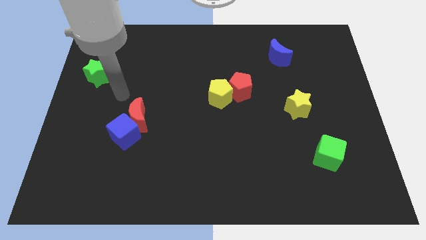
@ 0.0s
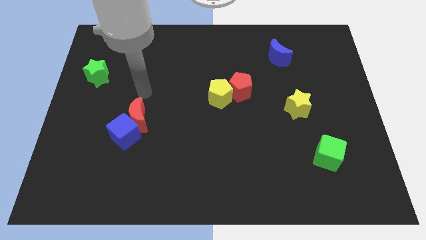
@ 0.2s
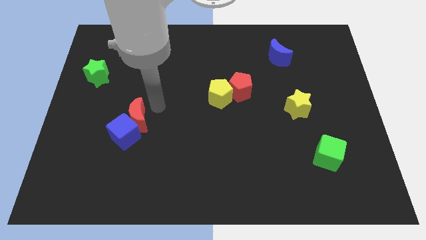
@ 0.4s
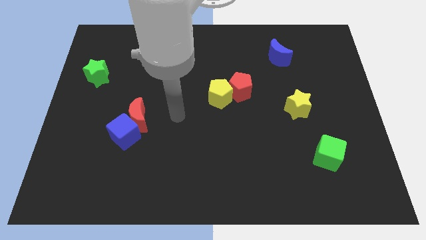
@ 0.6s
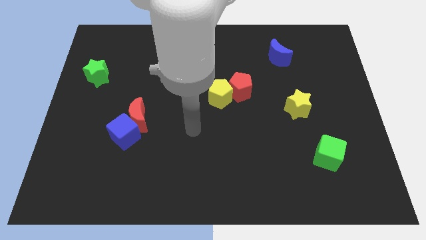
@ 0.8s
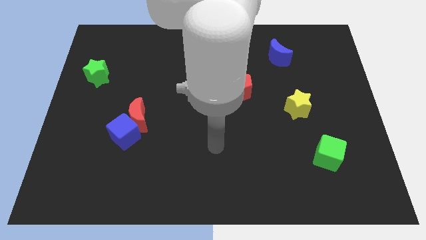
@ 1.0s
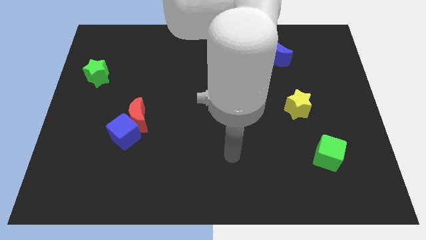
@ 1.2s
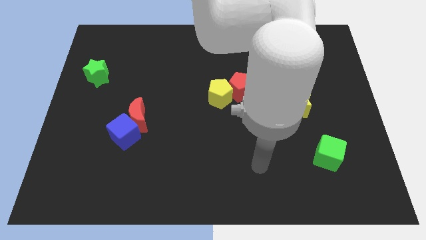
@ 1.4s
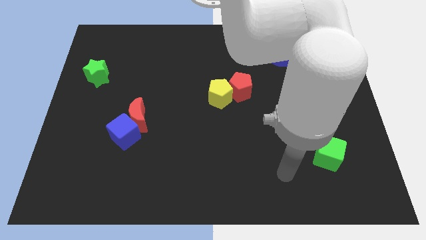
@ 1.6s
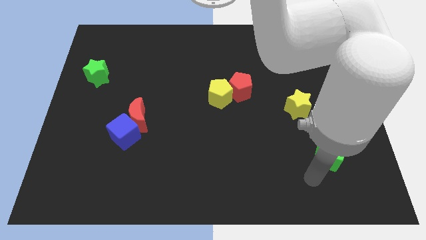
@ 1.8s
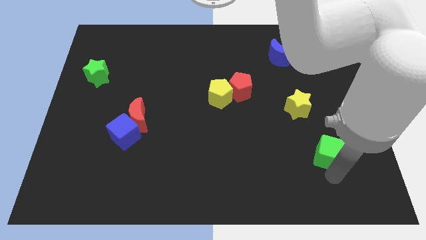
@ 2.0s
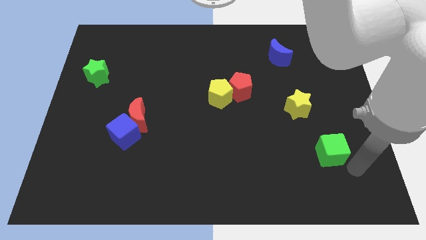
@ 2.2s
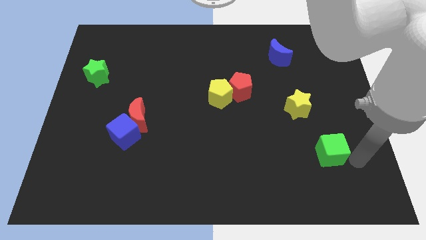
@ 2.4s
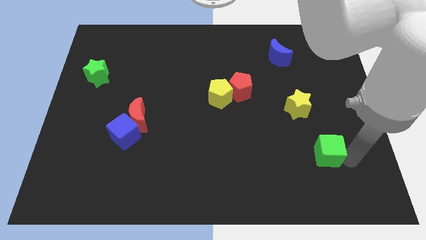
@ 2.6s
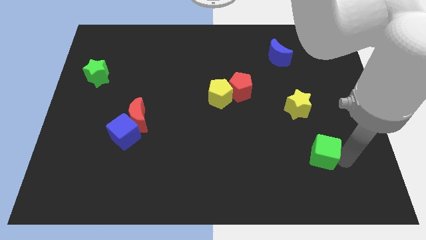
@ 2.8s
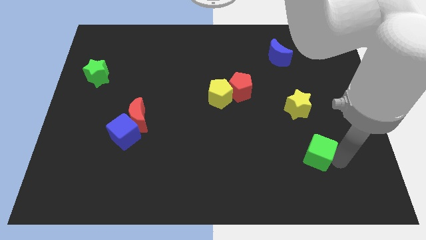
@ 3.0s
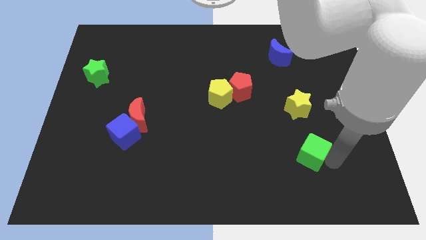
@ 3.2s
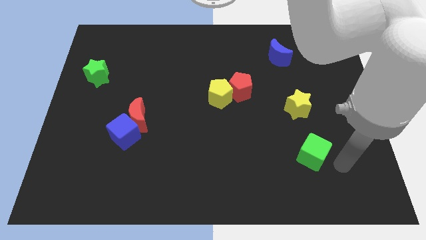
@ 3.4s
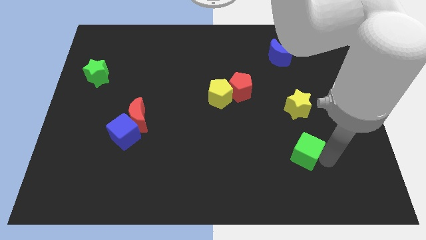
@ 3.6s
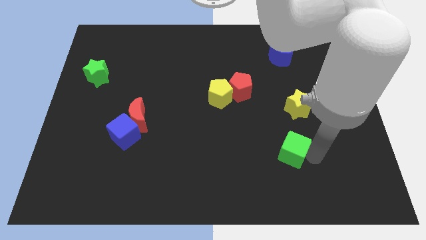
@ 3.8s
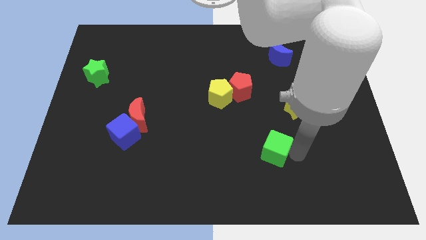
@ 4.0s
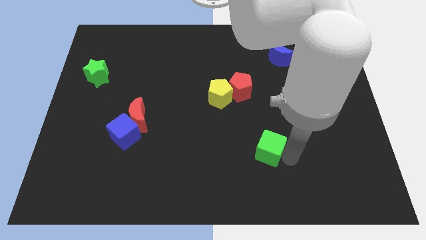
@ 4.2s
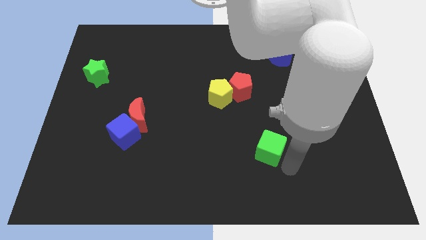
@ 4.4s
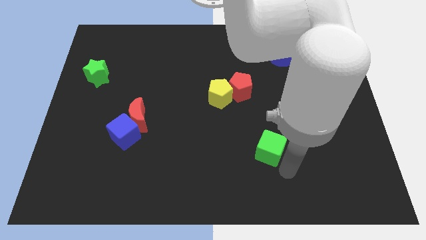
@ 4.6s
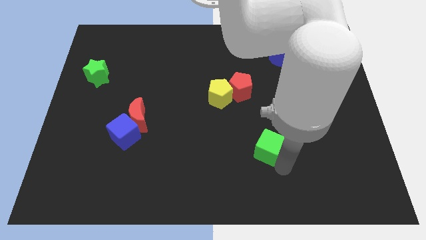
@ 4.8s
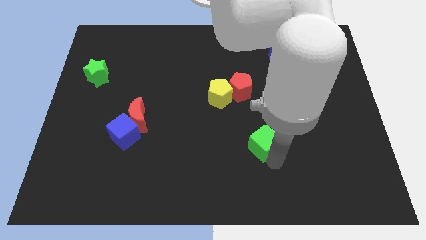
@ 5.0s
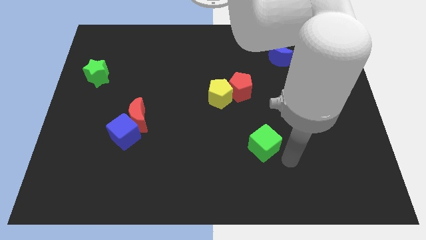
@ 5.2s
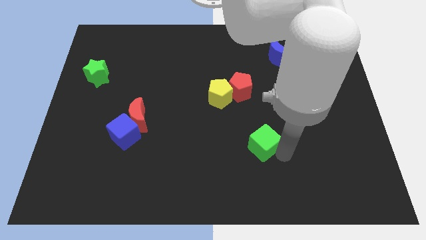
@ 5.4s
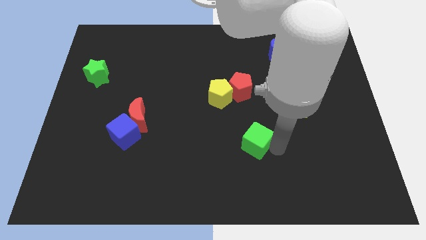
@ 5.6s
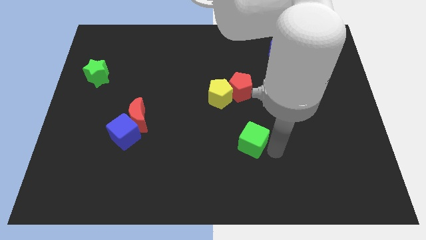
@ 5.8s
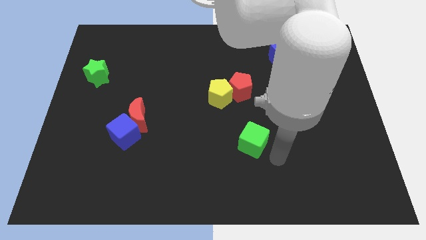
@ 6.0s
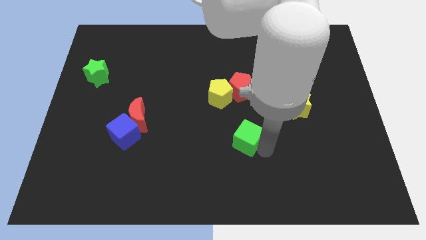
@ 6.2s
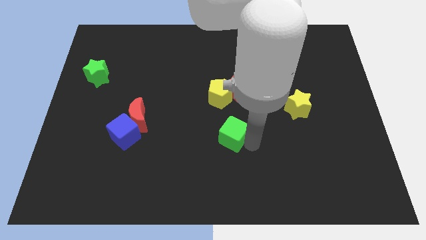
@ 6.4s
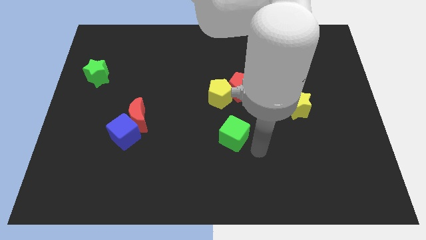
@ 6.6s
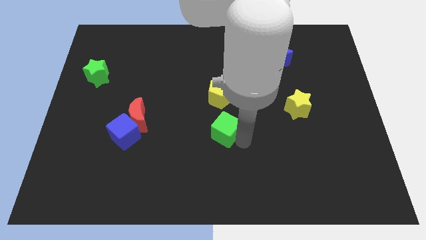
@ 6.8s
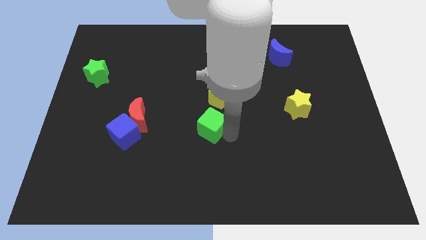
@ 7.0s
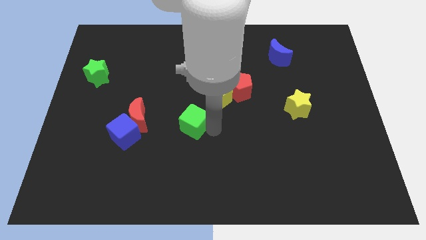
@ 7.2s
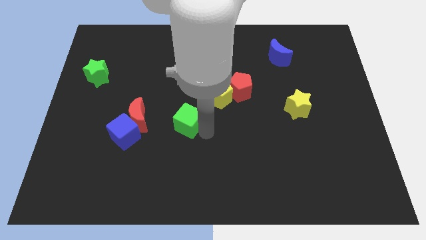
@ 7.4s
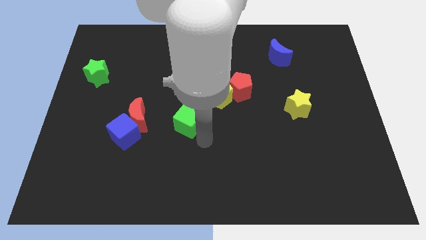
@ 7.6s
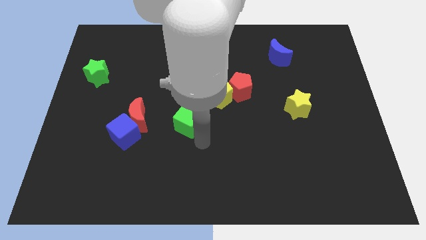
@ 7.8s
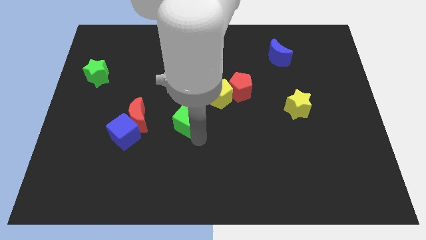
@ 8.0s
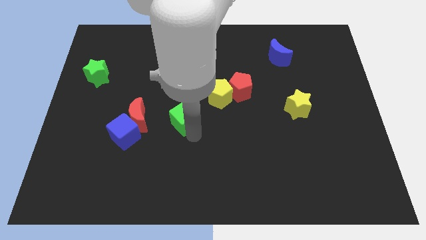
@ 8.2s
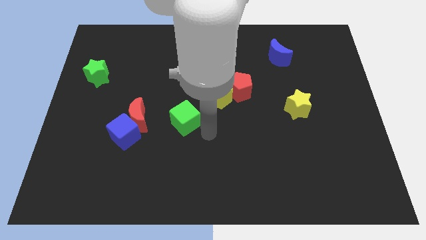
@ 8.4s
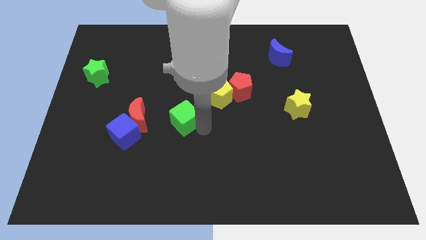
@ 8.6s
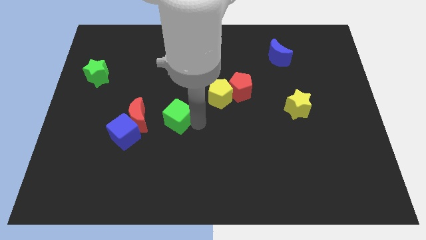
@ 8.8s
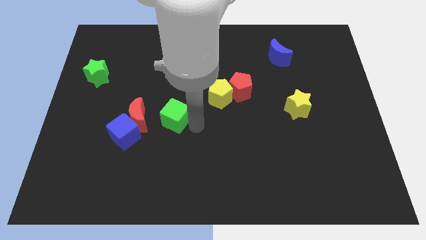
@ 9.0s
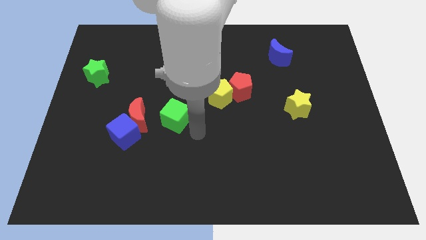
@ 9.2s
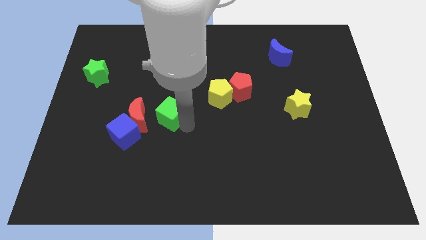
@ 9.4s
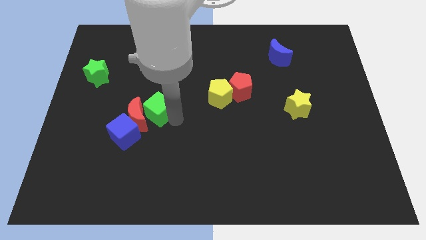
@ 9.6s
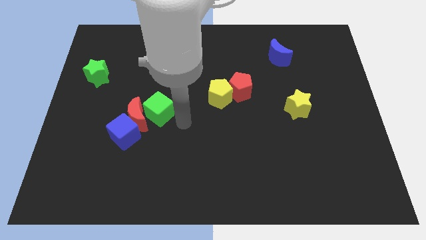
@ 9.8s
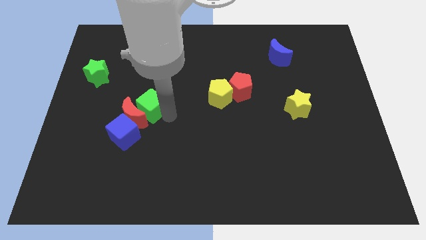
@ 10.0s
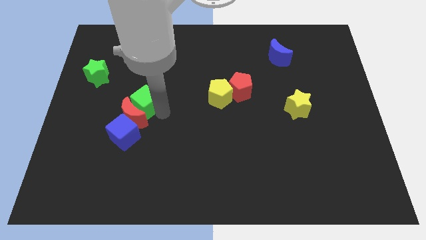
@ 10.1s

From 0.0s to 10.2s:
slide the green cube to the top of the blue cube

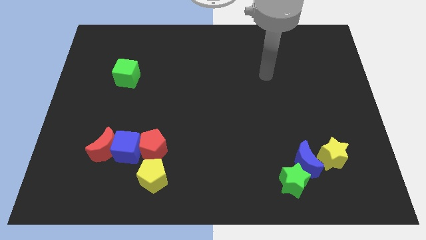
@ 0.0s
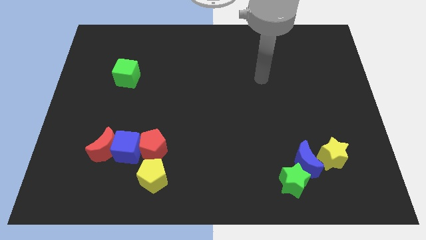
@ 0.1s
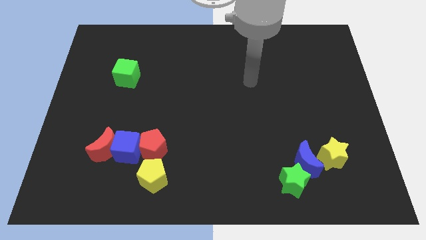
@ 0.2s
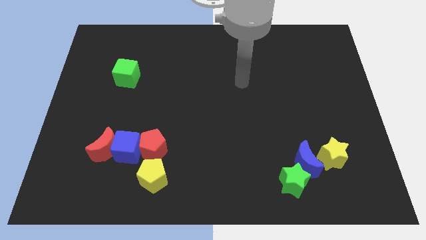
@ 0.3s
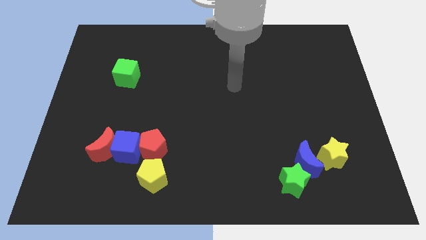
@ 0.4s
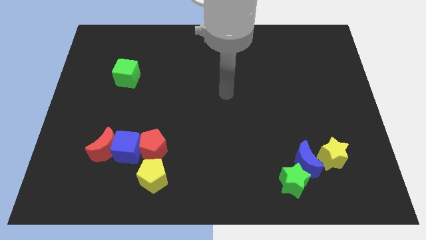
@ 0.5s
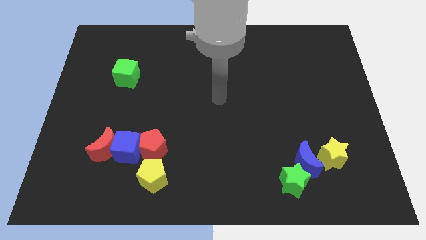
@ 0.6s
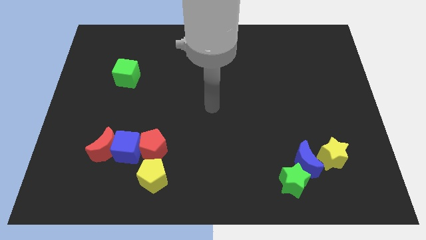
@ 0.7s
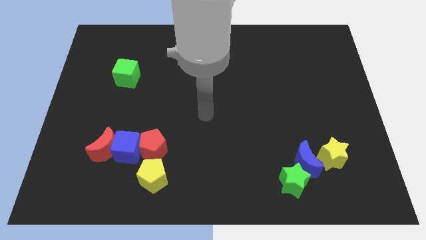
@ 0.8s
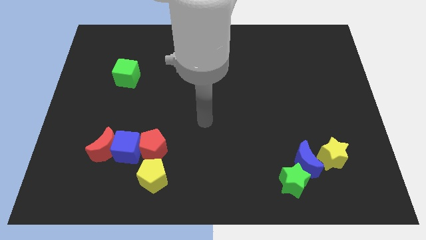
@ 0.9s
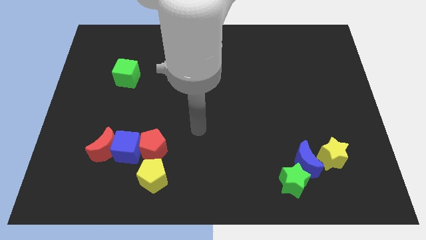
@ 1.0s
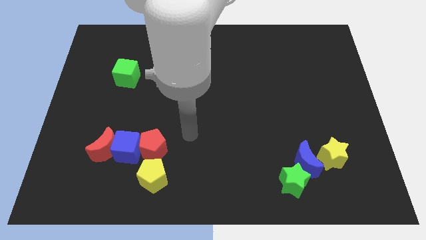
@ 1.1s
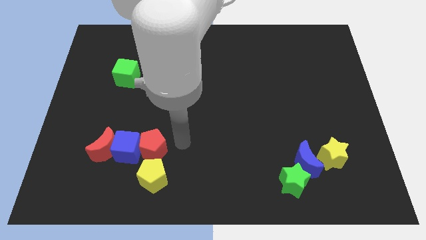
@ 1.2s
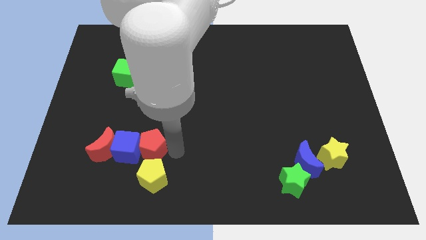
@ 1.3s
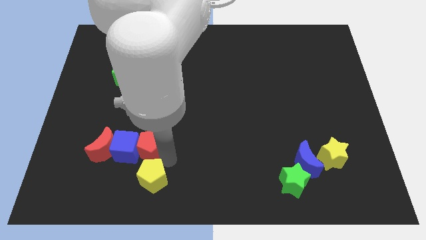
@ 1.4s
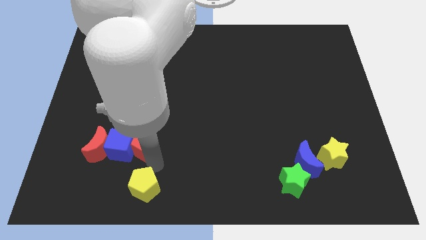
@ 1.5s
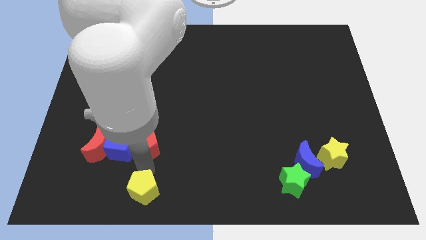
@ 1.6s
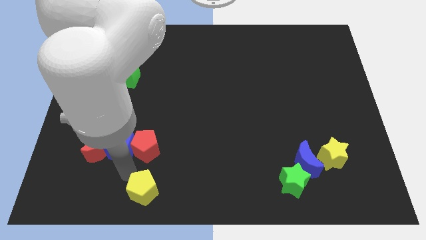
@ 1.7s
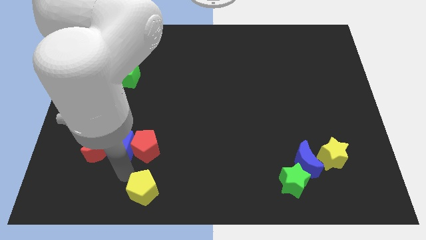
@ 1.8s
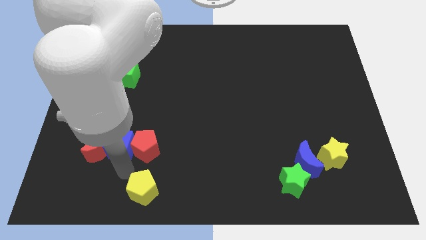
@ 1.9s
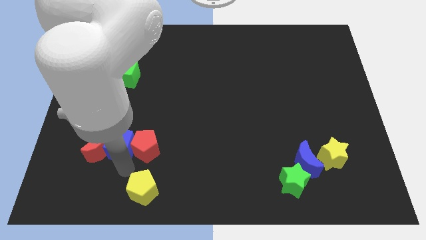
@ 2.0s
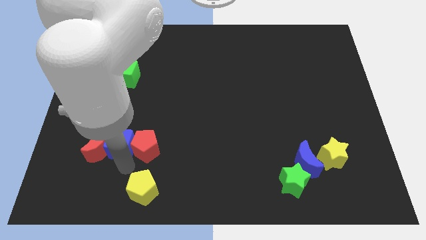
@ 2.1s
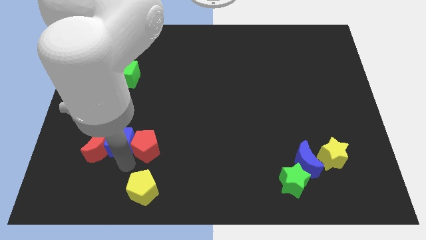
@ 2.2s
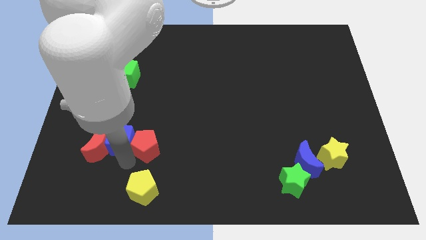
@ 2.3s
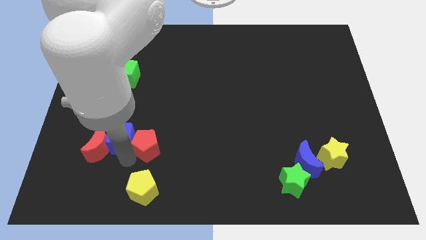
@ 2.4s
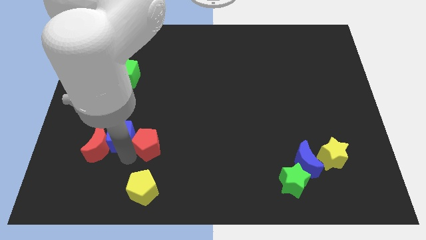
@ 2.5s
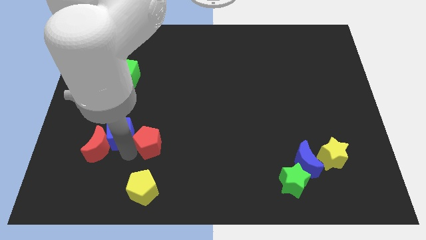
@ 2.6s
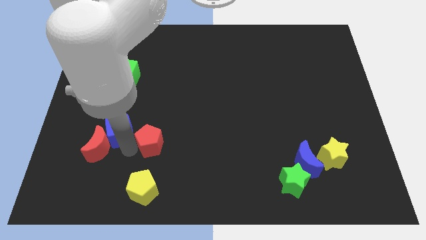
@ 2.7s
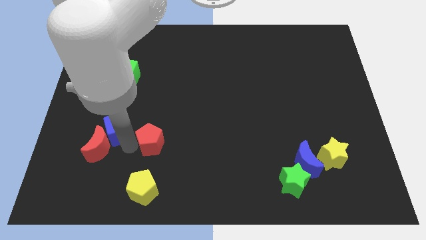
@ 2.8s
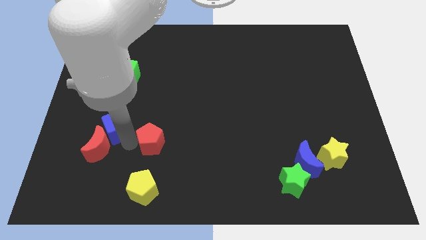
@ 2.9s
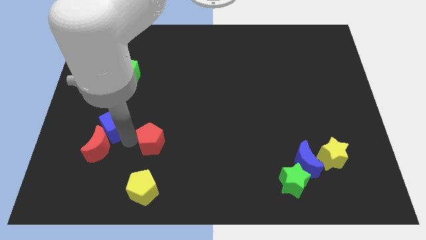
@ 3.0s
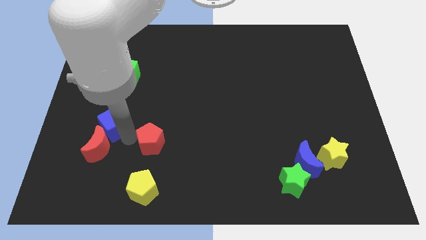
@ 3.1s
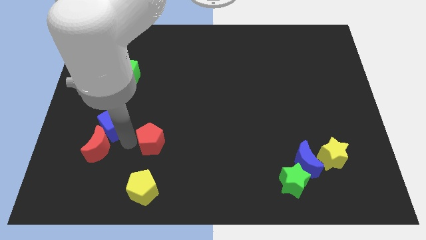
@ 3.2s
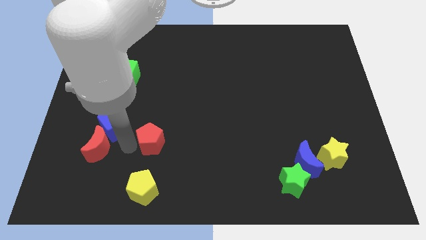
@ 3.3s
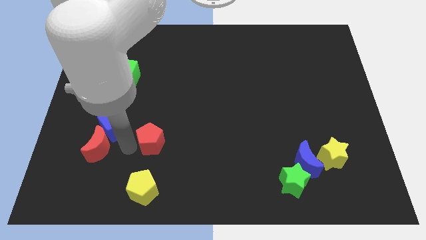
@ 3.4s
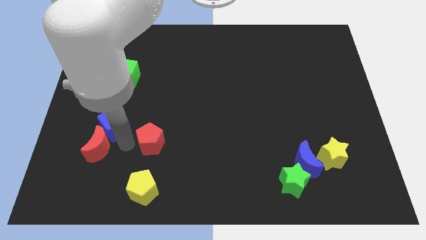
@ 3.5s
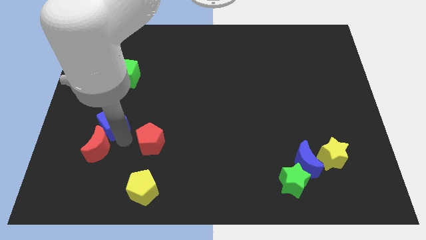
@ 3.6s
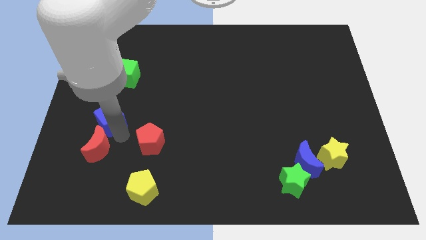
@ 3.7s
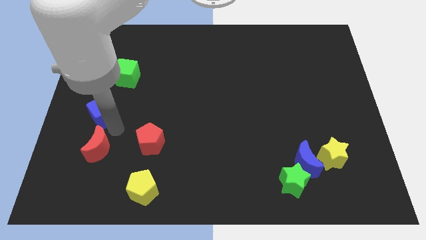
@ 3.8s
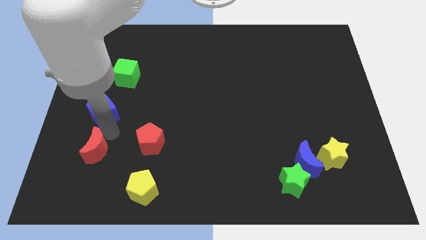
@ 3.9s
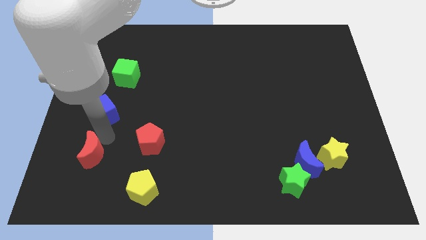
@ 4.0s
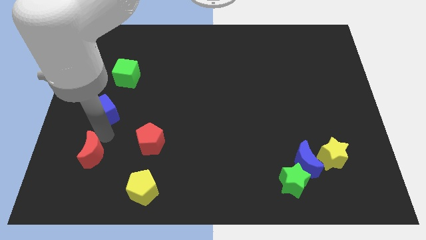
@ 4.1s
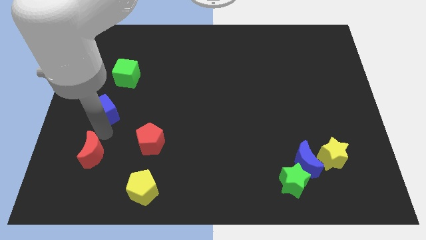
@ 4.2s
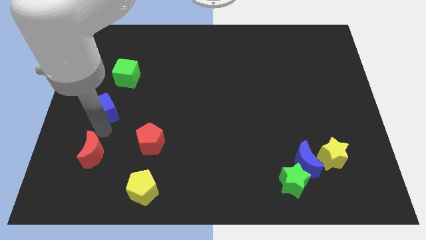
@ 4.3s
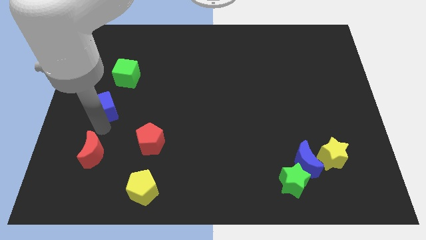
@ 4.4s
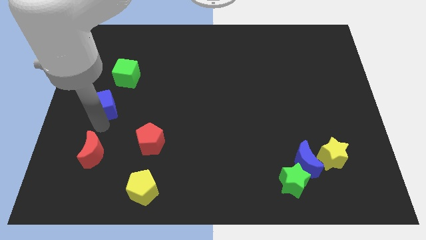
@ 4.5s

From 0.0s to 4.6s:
slide the blue cube diagonally down and to the left of the green cube
